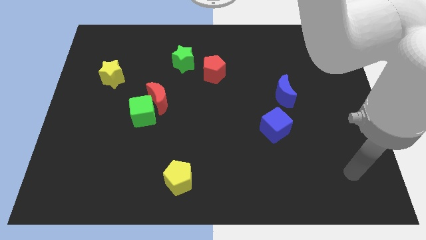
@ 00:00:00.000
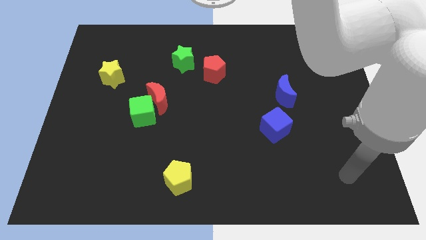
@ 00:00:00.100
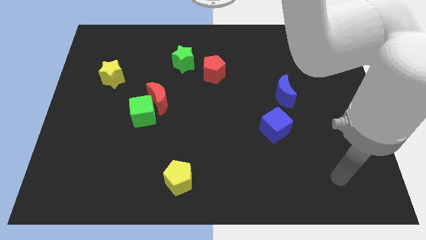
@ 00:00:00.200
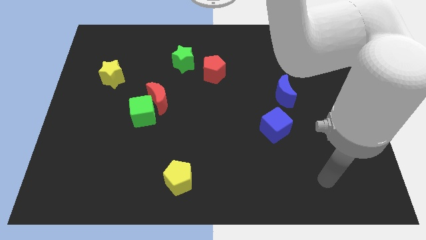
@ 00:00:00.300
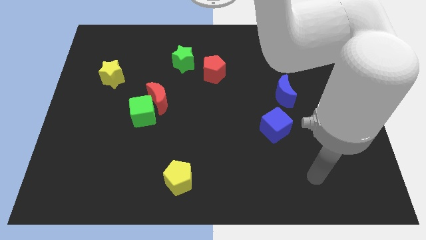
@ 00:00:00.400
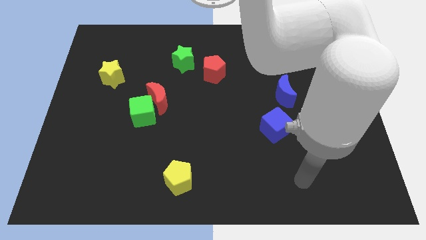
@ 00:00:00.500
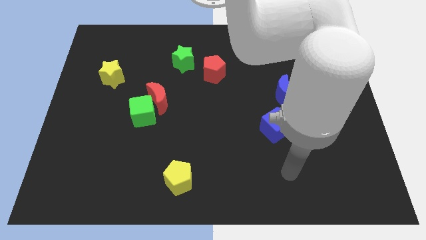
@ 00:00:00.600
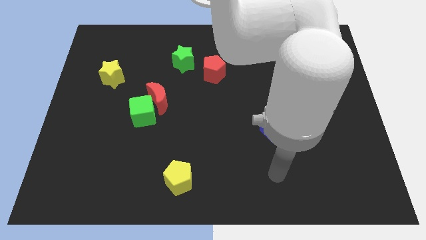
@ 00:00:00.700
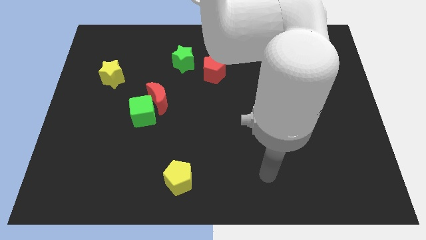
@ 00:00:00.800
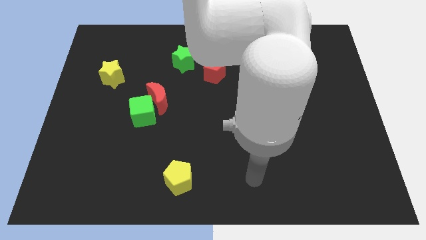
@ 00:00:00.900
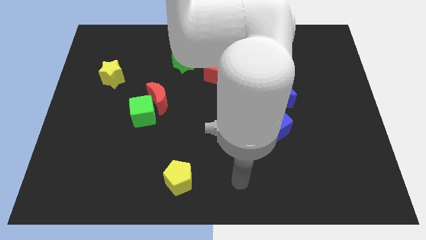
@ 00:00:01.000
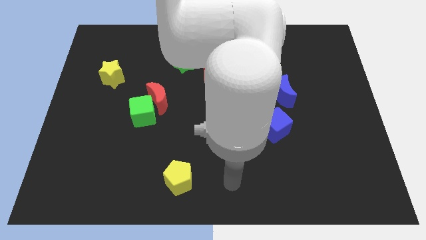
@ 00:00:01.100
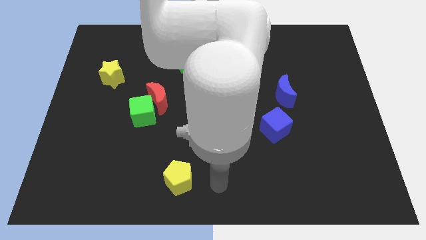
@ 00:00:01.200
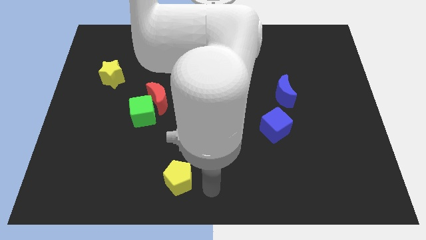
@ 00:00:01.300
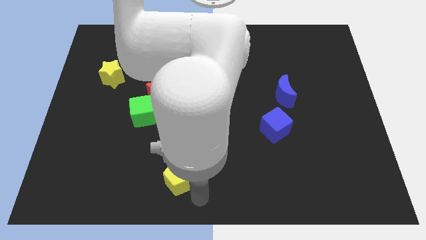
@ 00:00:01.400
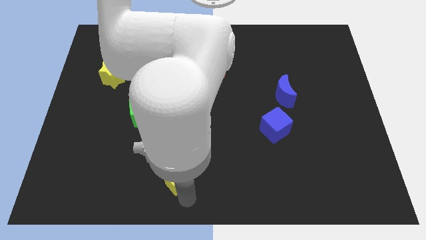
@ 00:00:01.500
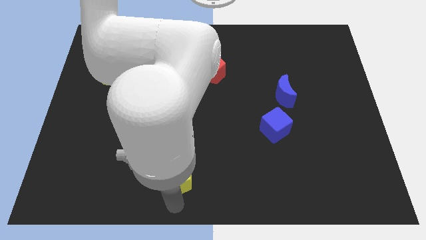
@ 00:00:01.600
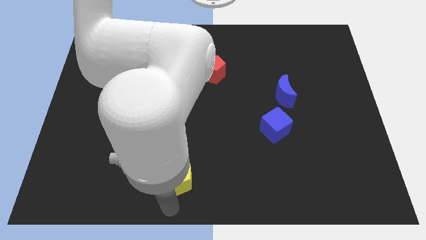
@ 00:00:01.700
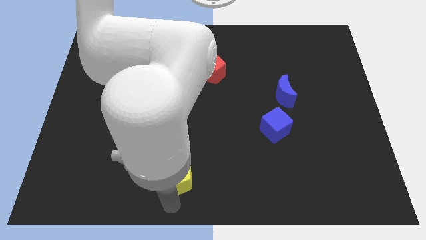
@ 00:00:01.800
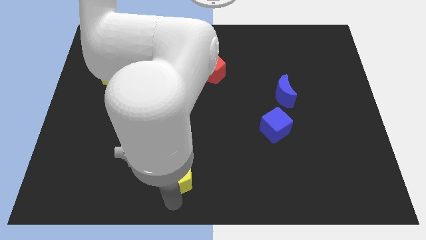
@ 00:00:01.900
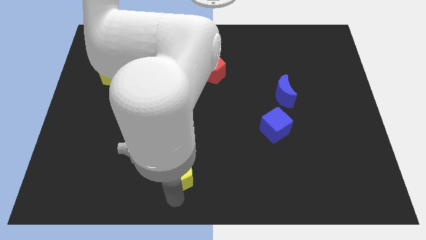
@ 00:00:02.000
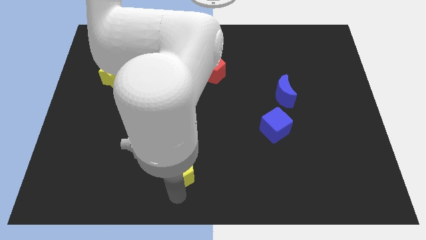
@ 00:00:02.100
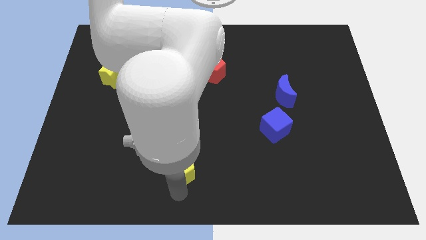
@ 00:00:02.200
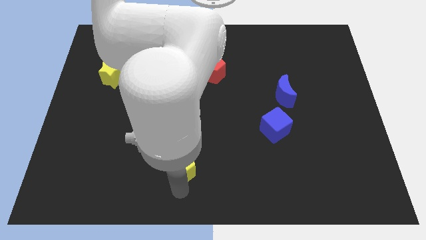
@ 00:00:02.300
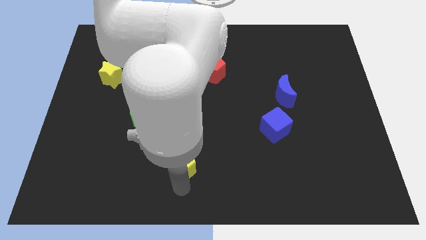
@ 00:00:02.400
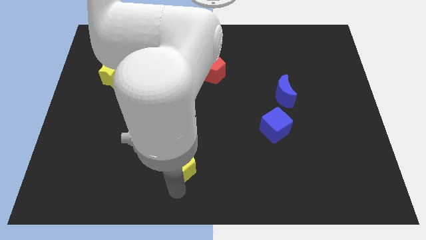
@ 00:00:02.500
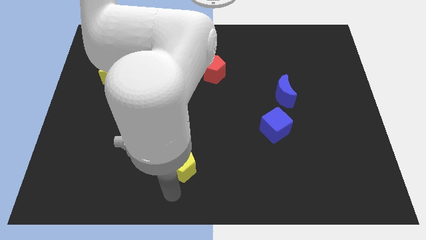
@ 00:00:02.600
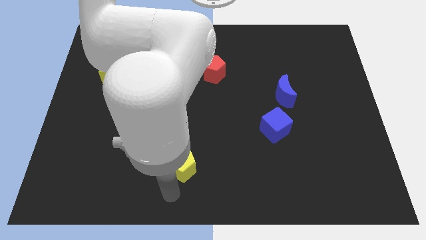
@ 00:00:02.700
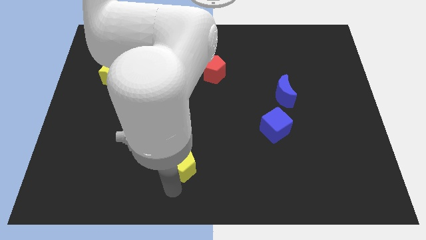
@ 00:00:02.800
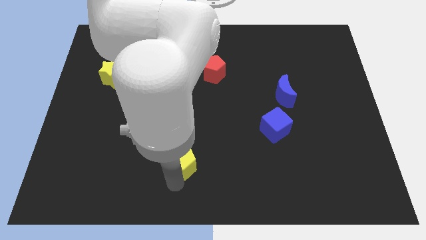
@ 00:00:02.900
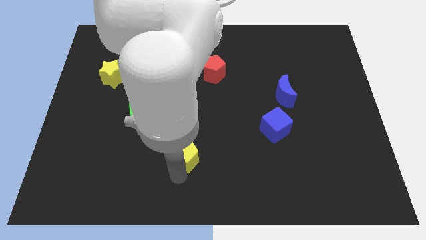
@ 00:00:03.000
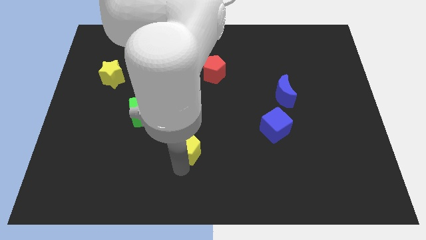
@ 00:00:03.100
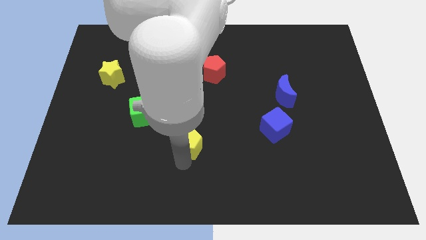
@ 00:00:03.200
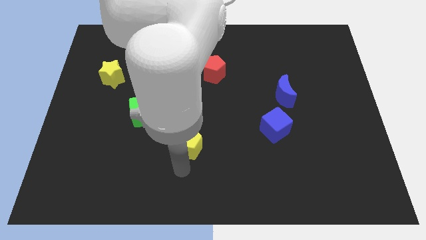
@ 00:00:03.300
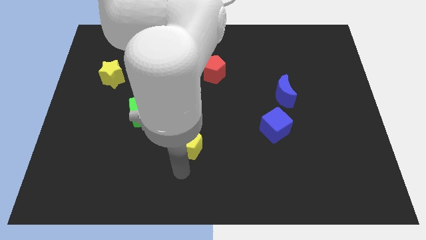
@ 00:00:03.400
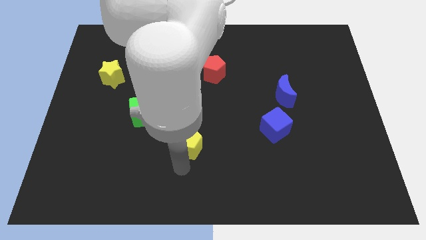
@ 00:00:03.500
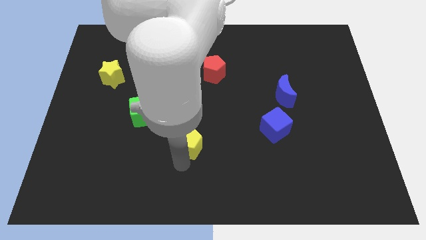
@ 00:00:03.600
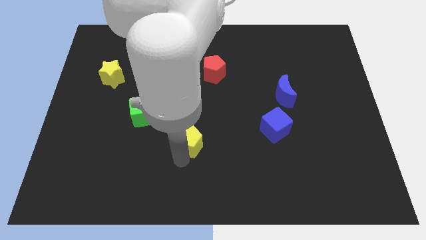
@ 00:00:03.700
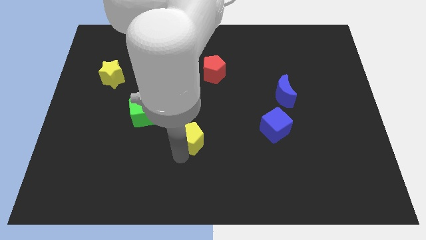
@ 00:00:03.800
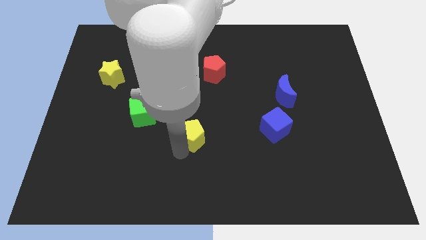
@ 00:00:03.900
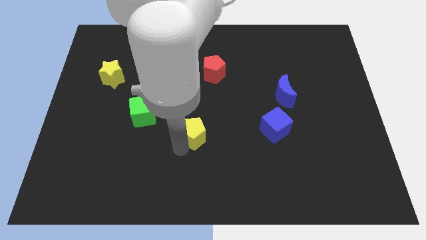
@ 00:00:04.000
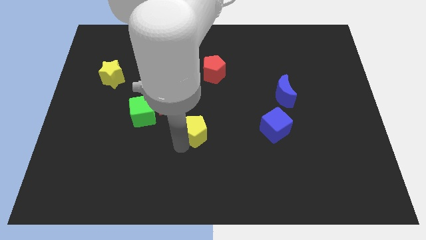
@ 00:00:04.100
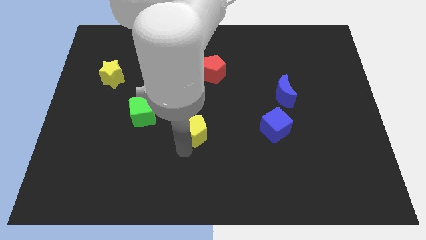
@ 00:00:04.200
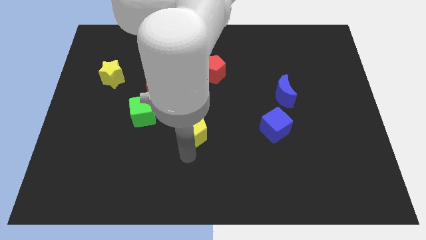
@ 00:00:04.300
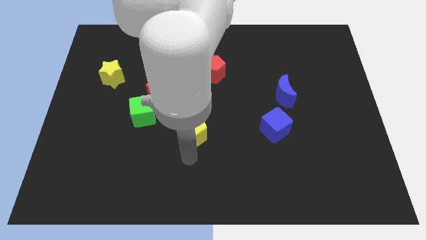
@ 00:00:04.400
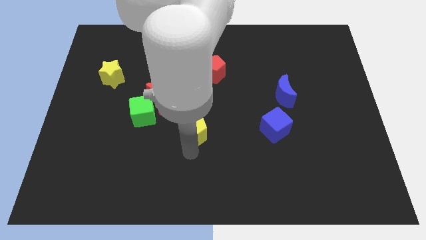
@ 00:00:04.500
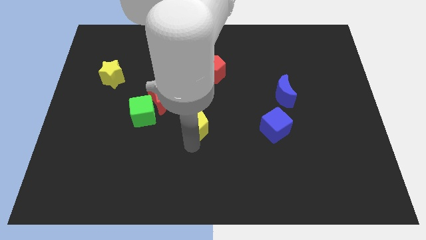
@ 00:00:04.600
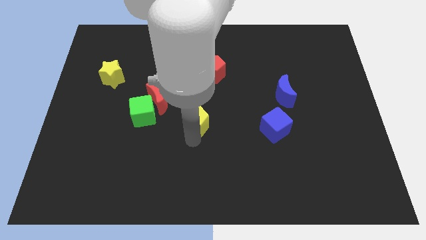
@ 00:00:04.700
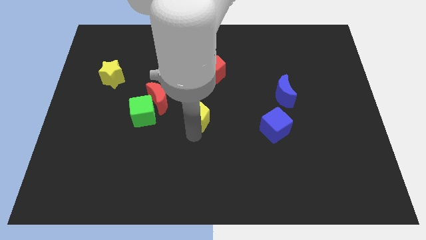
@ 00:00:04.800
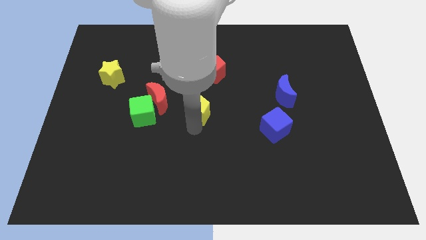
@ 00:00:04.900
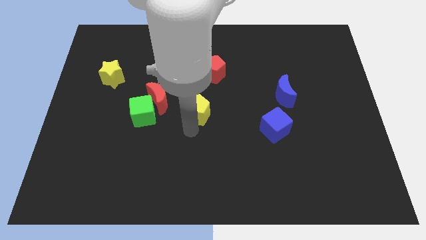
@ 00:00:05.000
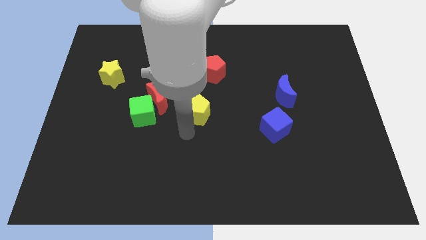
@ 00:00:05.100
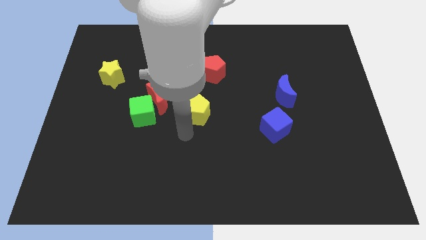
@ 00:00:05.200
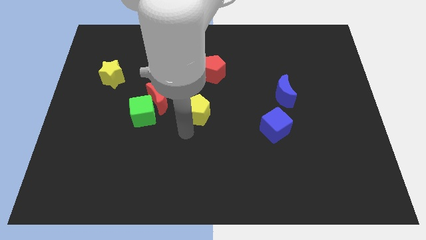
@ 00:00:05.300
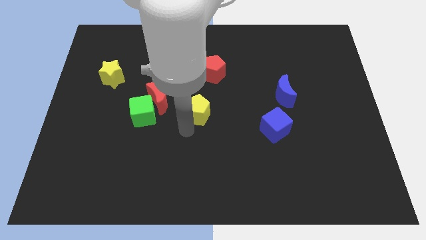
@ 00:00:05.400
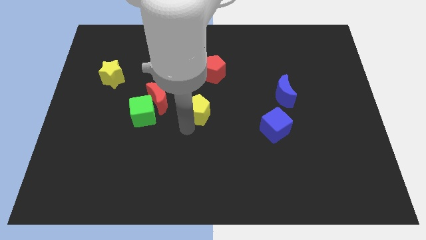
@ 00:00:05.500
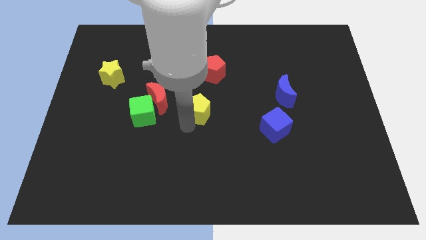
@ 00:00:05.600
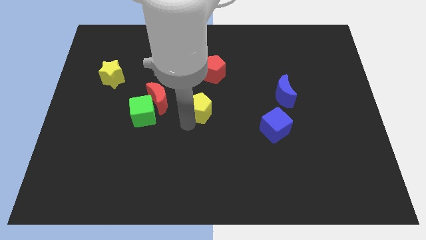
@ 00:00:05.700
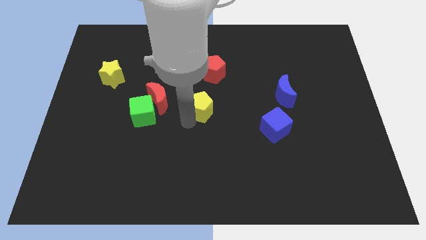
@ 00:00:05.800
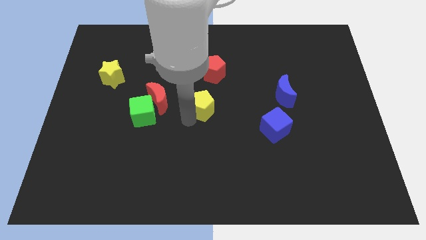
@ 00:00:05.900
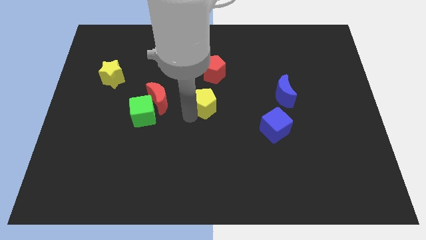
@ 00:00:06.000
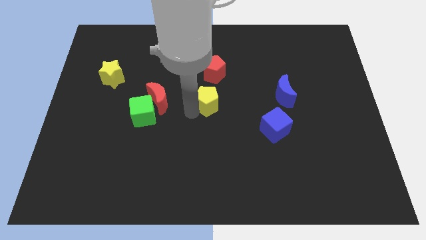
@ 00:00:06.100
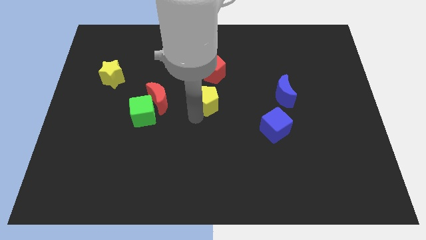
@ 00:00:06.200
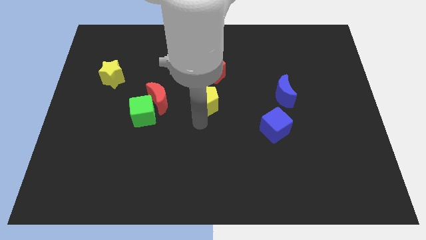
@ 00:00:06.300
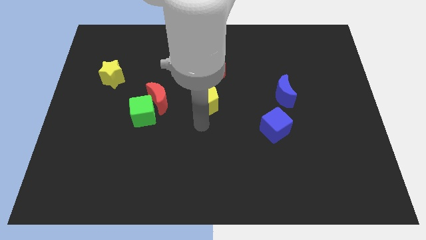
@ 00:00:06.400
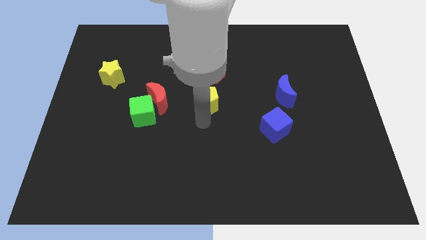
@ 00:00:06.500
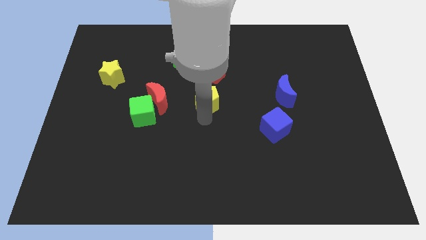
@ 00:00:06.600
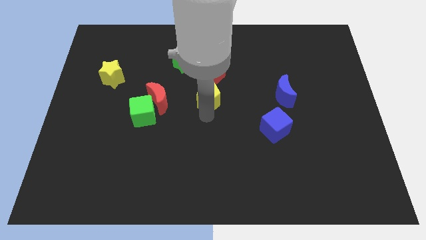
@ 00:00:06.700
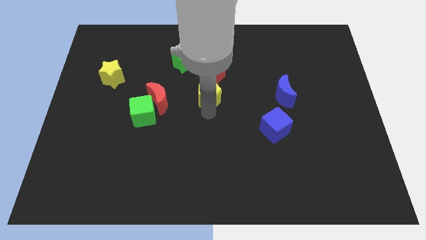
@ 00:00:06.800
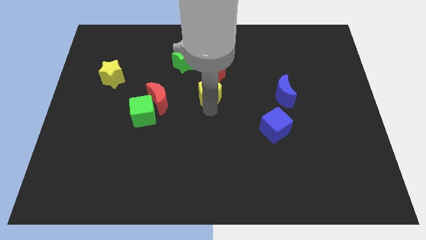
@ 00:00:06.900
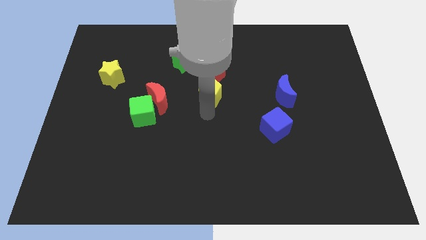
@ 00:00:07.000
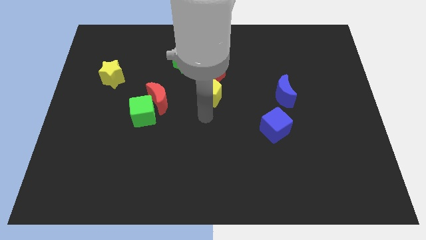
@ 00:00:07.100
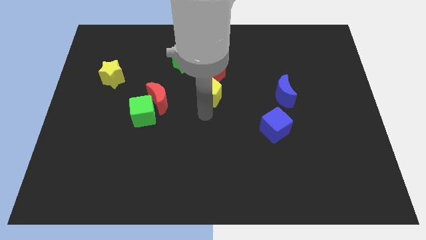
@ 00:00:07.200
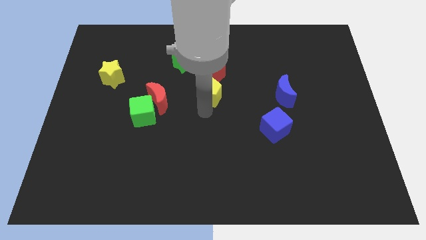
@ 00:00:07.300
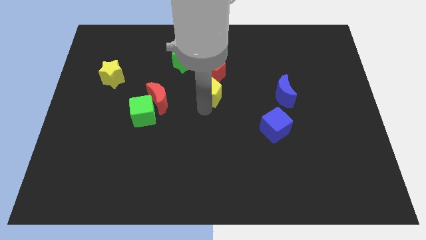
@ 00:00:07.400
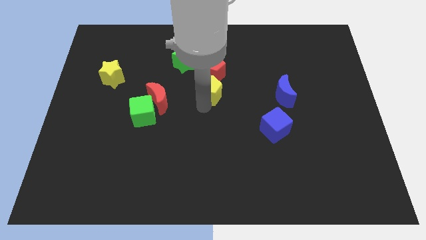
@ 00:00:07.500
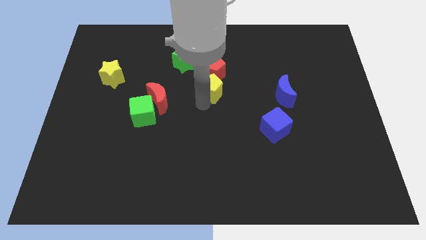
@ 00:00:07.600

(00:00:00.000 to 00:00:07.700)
slide the yellow pentagon towards the red pentagon
